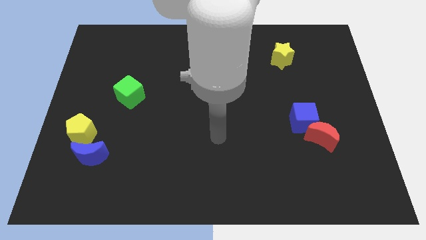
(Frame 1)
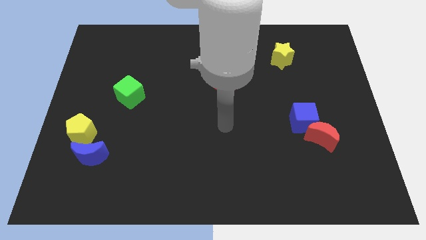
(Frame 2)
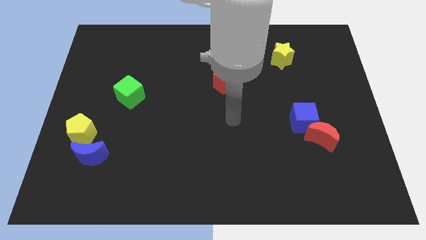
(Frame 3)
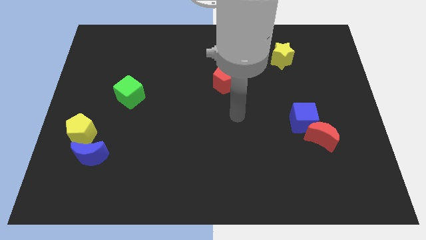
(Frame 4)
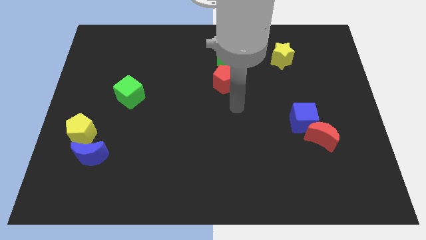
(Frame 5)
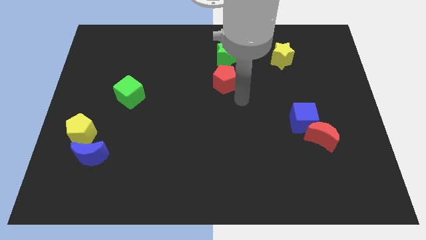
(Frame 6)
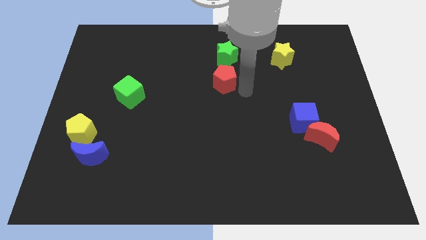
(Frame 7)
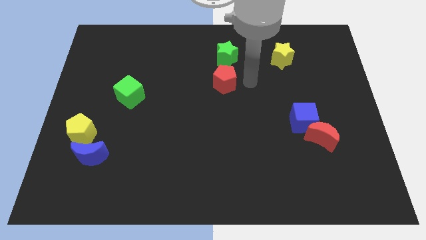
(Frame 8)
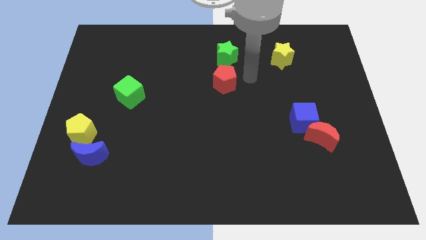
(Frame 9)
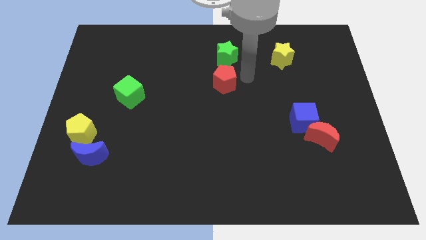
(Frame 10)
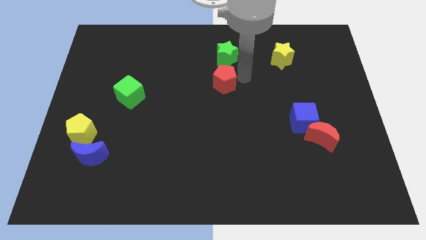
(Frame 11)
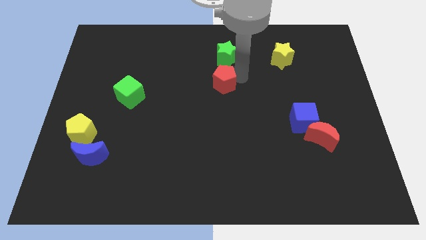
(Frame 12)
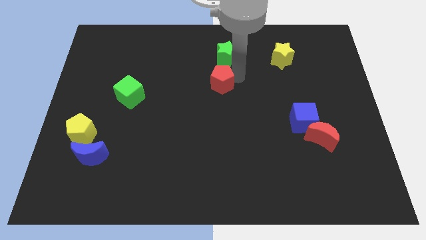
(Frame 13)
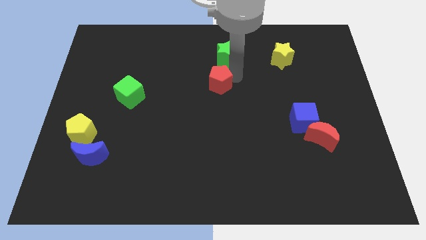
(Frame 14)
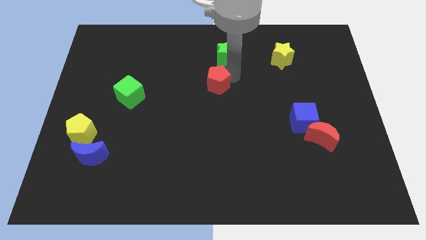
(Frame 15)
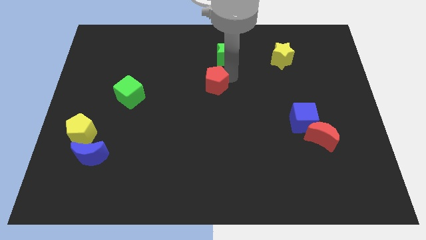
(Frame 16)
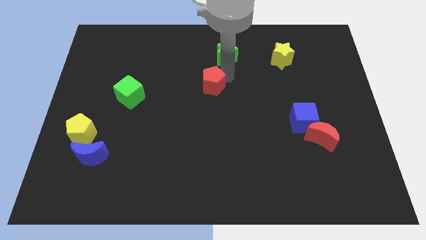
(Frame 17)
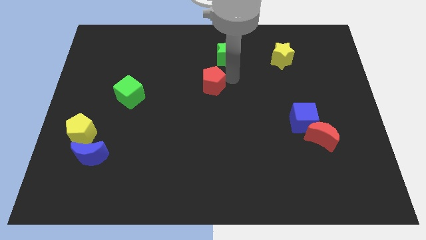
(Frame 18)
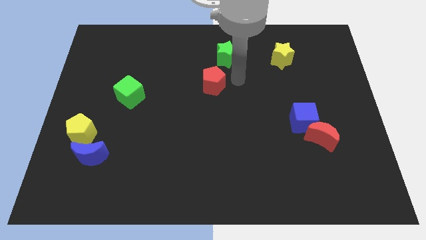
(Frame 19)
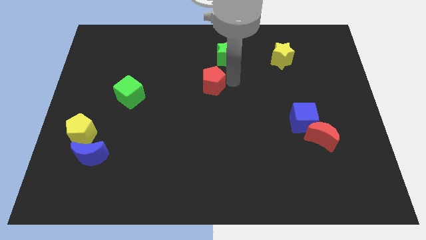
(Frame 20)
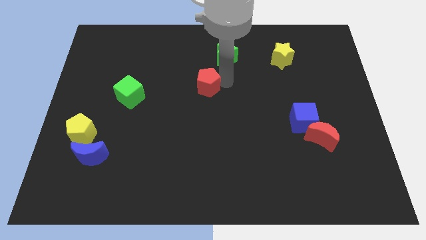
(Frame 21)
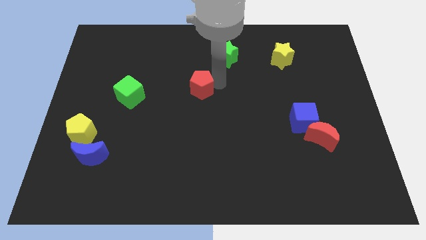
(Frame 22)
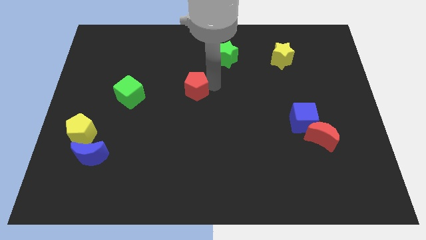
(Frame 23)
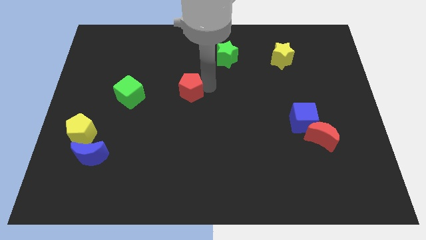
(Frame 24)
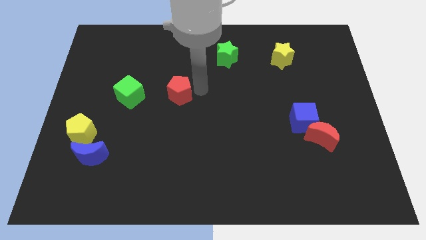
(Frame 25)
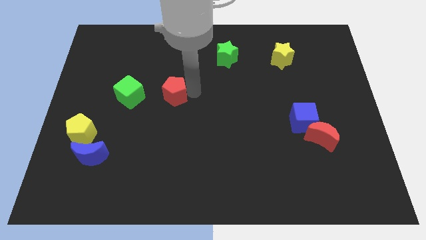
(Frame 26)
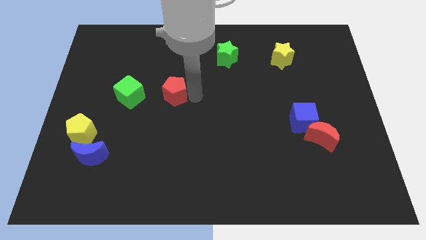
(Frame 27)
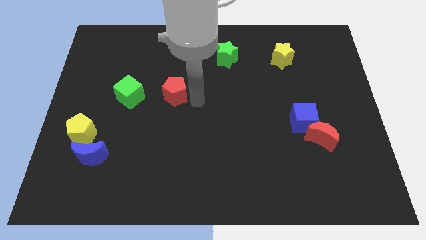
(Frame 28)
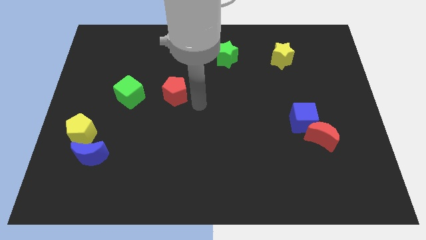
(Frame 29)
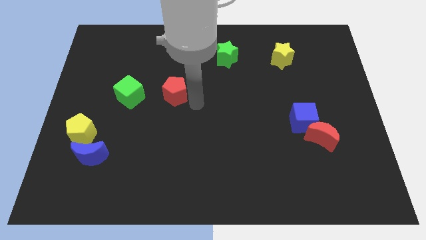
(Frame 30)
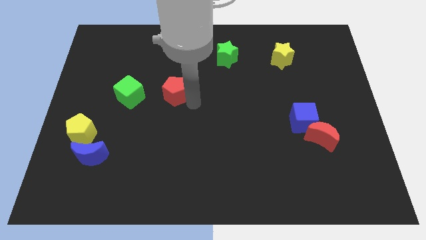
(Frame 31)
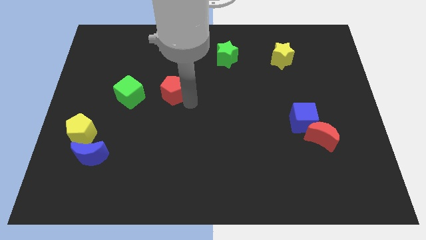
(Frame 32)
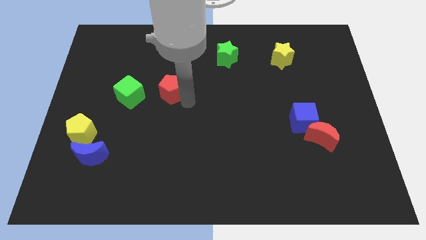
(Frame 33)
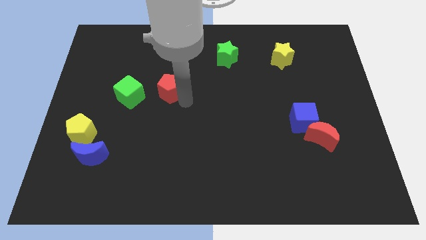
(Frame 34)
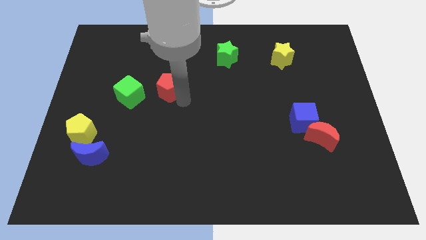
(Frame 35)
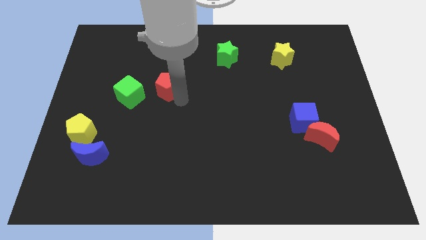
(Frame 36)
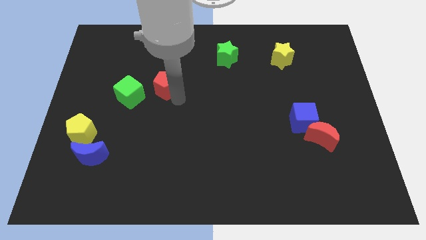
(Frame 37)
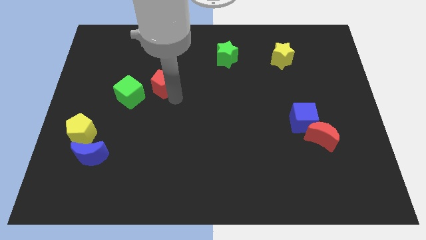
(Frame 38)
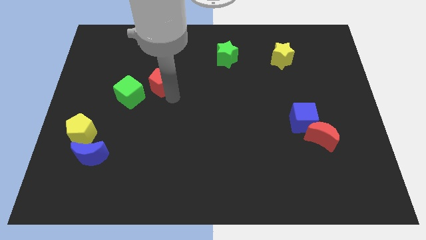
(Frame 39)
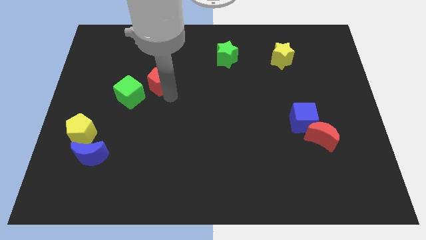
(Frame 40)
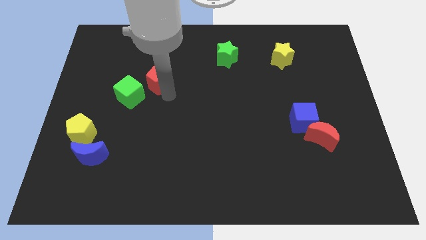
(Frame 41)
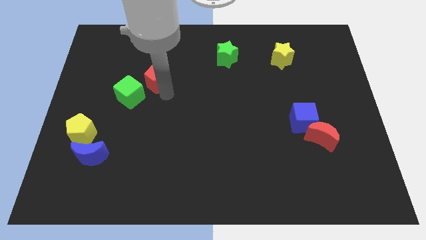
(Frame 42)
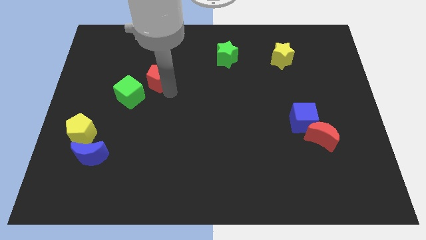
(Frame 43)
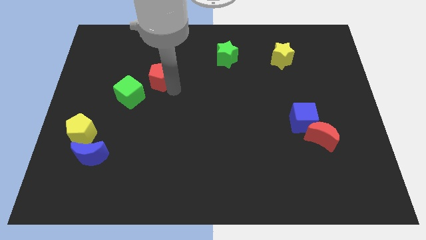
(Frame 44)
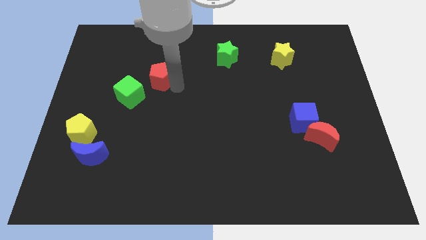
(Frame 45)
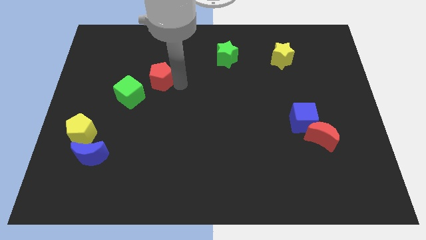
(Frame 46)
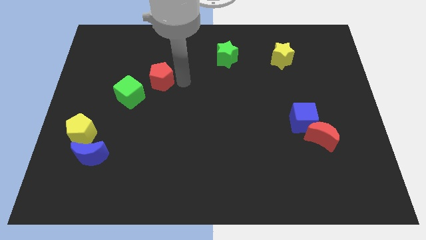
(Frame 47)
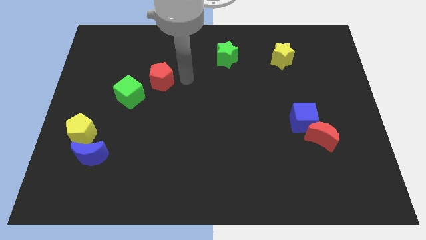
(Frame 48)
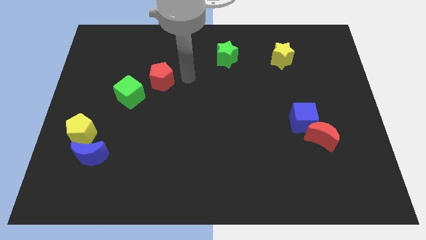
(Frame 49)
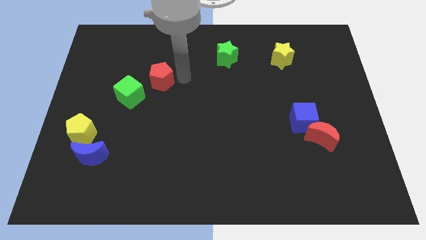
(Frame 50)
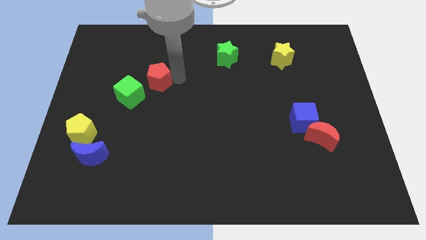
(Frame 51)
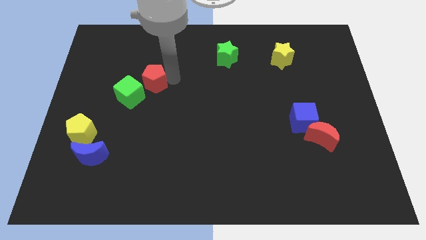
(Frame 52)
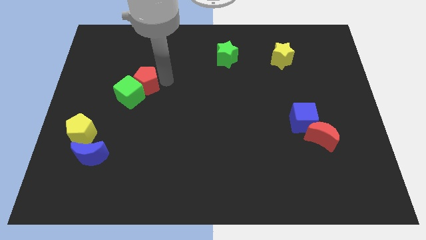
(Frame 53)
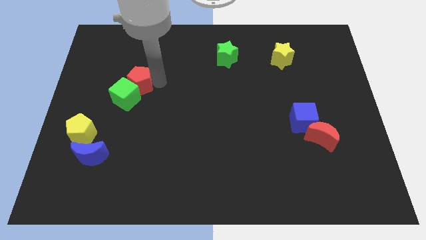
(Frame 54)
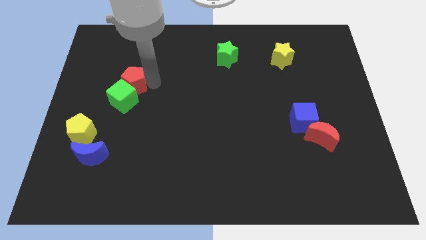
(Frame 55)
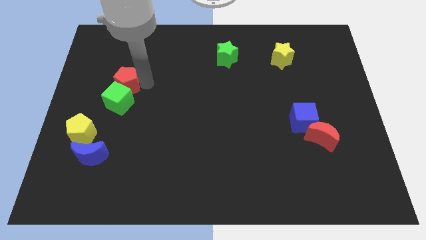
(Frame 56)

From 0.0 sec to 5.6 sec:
slide the red pentagon to the top left side of the green cube

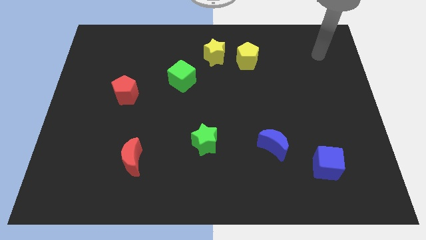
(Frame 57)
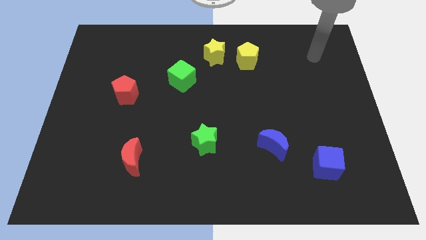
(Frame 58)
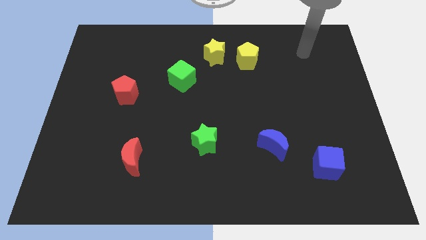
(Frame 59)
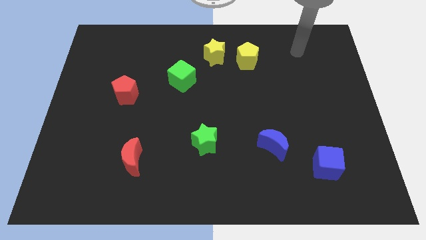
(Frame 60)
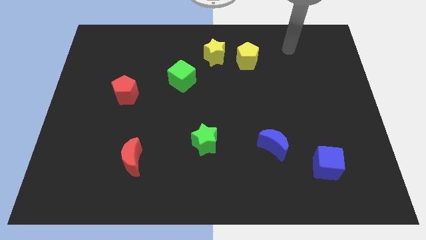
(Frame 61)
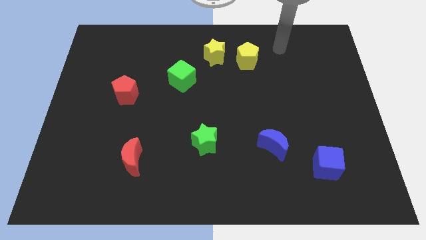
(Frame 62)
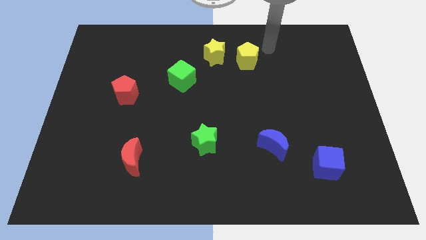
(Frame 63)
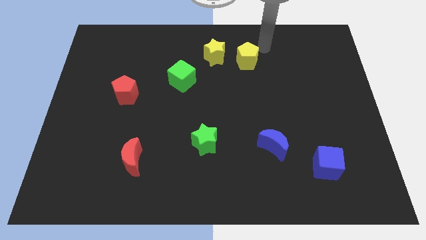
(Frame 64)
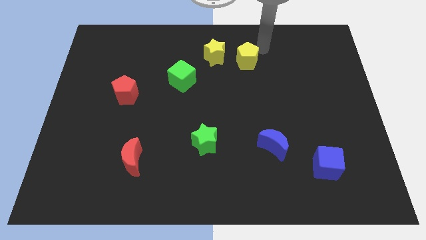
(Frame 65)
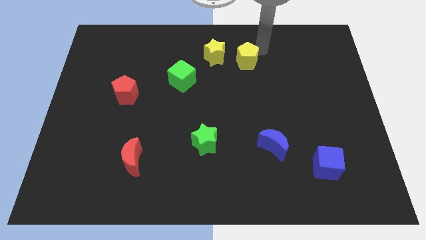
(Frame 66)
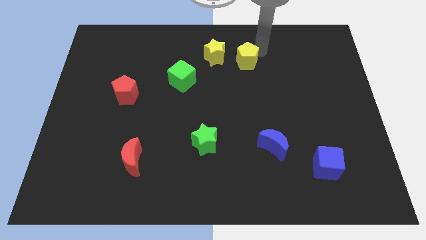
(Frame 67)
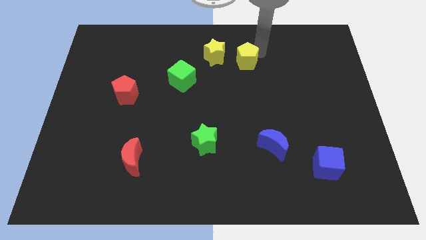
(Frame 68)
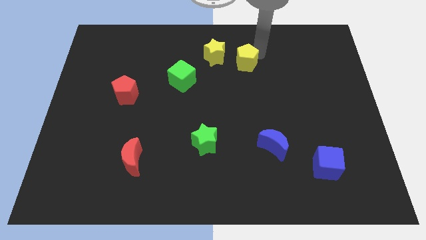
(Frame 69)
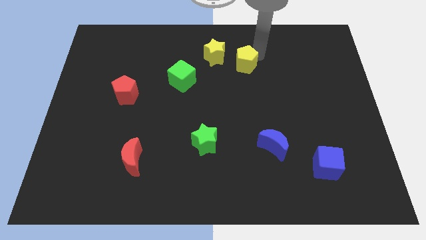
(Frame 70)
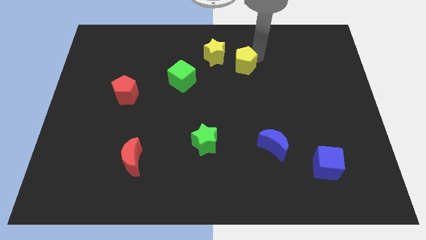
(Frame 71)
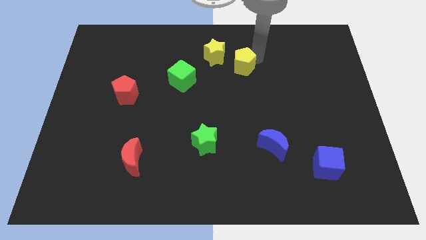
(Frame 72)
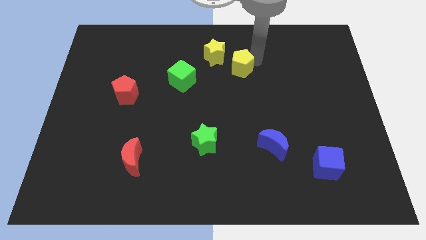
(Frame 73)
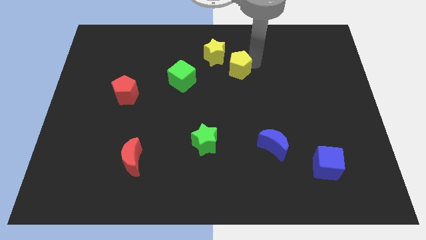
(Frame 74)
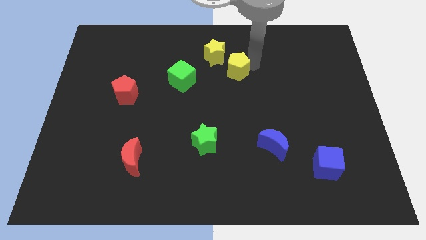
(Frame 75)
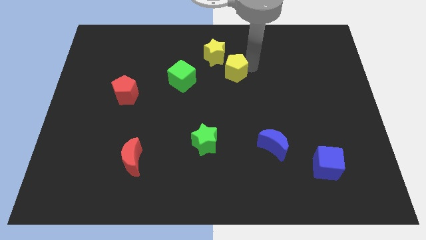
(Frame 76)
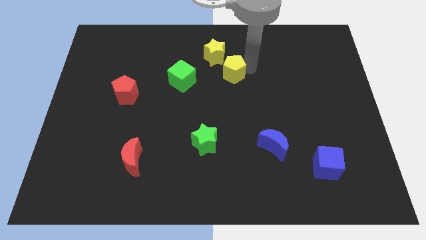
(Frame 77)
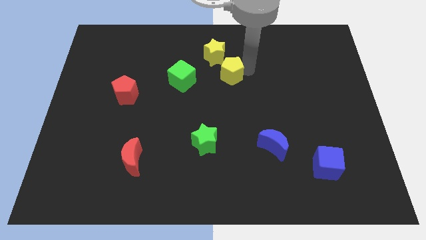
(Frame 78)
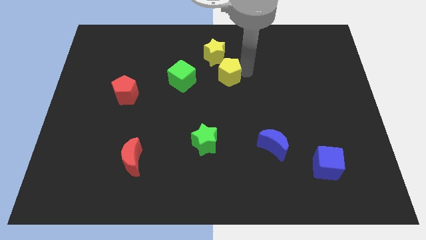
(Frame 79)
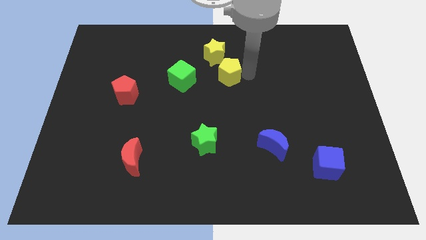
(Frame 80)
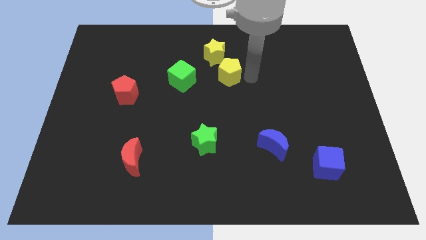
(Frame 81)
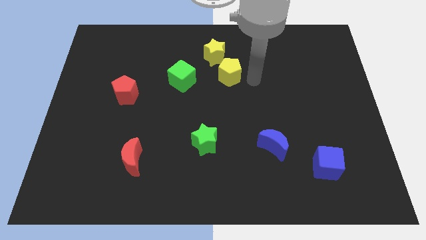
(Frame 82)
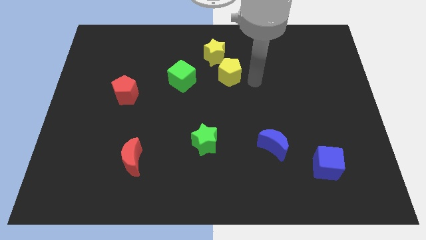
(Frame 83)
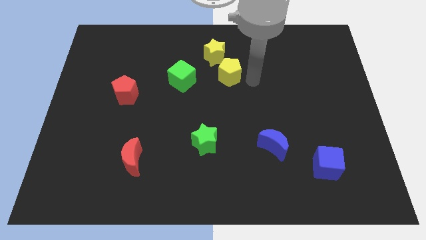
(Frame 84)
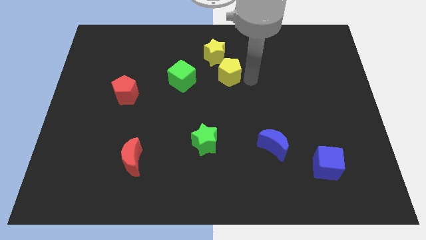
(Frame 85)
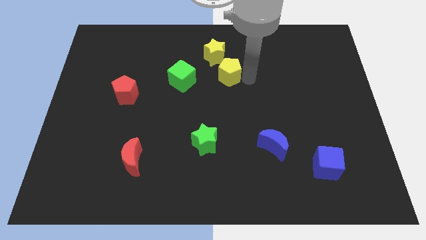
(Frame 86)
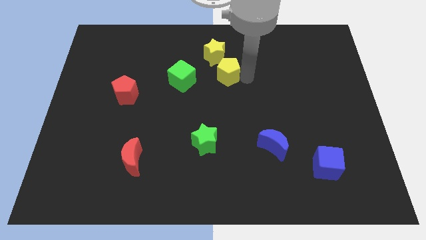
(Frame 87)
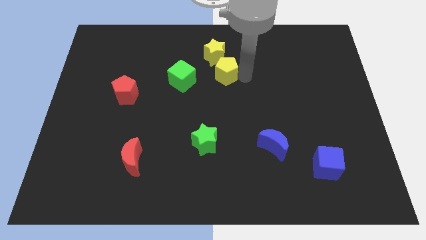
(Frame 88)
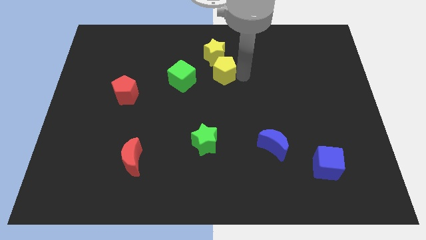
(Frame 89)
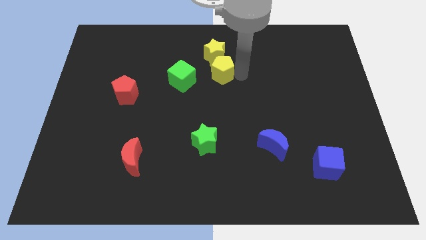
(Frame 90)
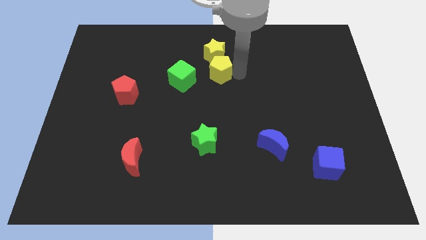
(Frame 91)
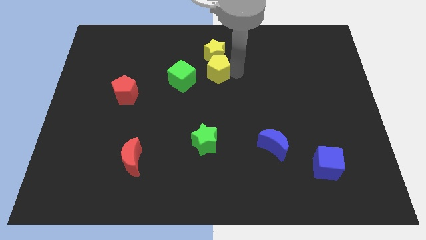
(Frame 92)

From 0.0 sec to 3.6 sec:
push the yellow pentagon to the bottom left side of the yellow star
